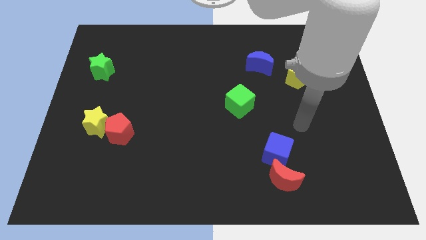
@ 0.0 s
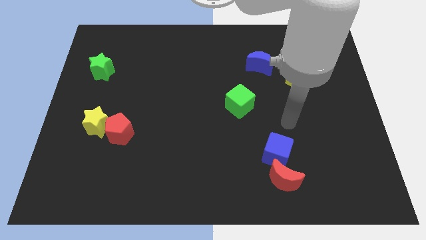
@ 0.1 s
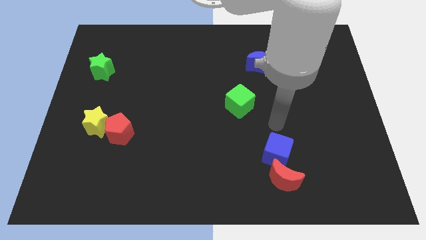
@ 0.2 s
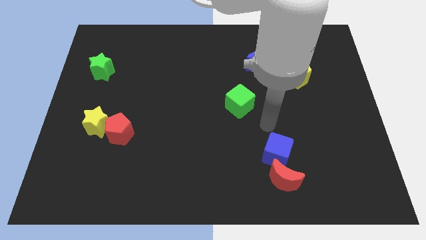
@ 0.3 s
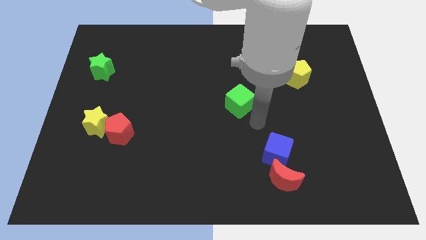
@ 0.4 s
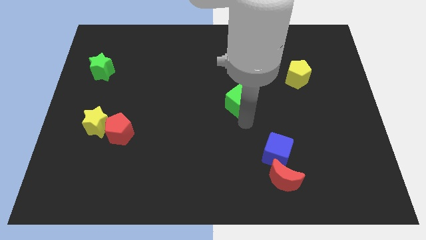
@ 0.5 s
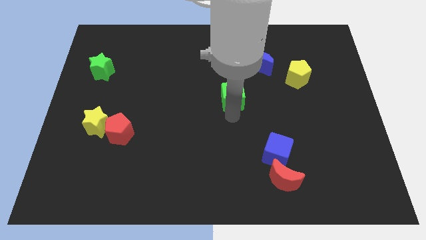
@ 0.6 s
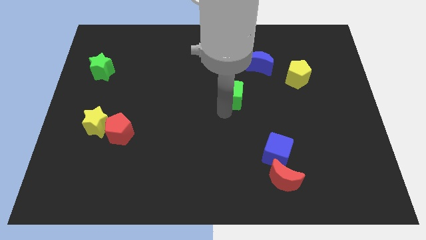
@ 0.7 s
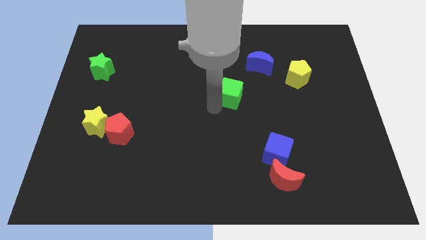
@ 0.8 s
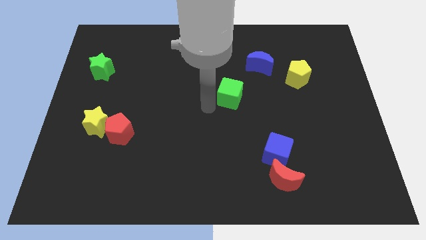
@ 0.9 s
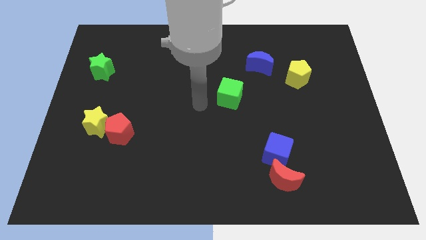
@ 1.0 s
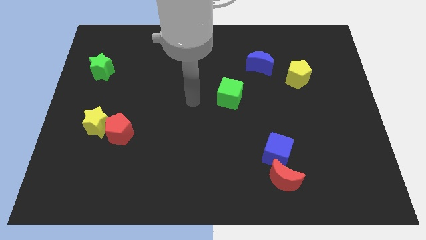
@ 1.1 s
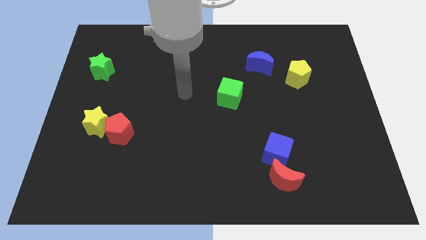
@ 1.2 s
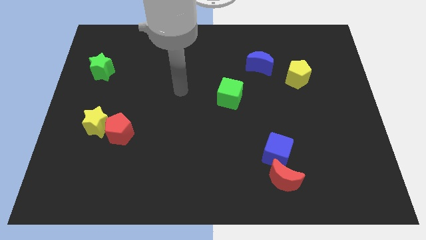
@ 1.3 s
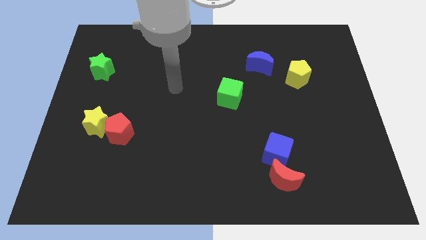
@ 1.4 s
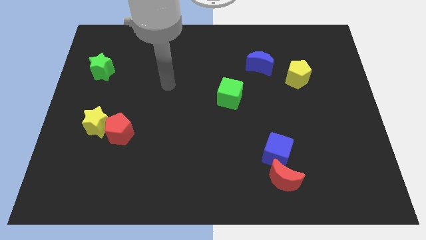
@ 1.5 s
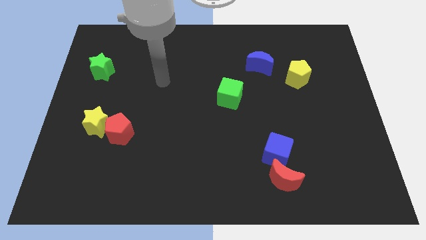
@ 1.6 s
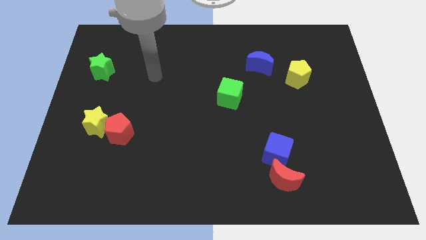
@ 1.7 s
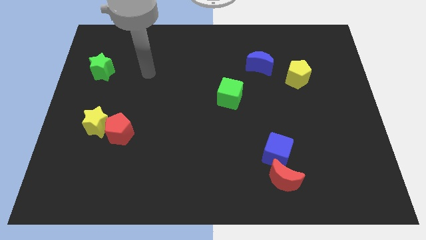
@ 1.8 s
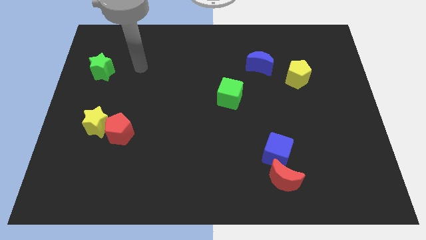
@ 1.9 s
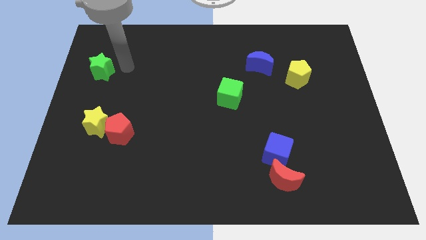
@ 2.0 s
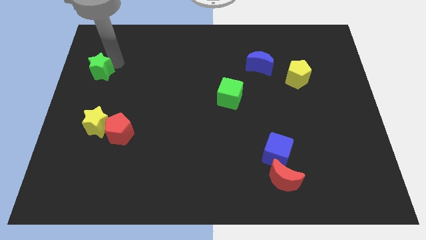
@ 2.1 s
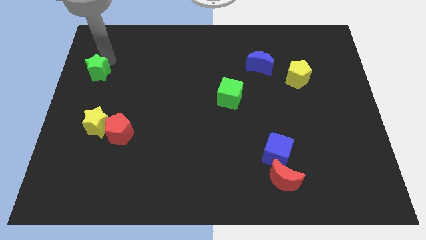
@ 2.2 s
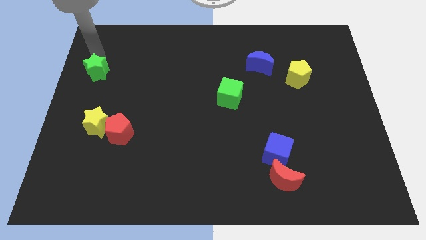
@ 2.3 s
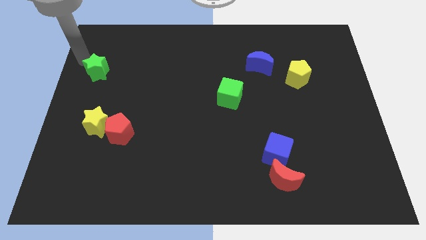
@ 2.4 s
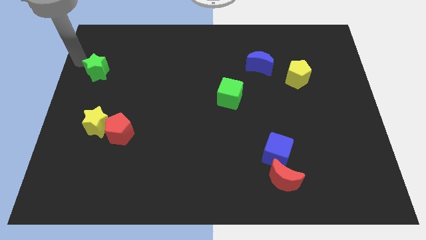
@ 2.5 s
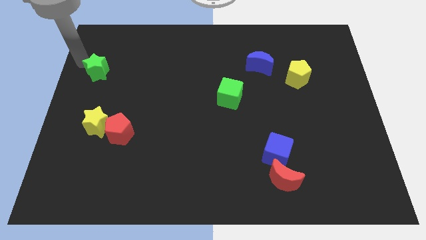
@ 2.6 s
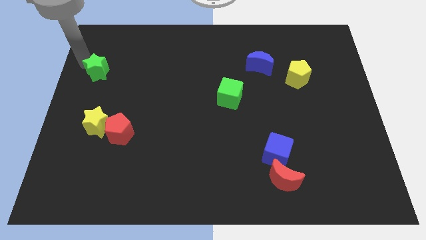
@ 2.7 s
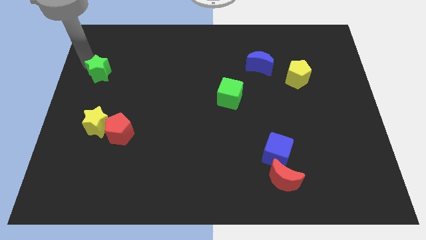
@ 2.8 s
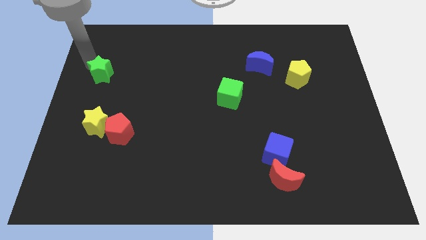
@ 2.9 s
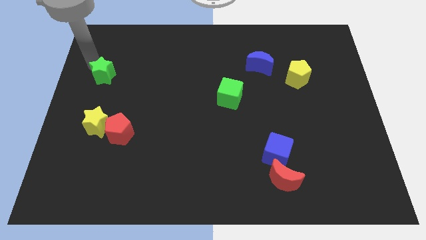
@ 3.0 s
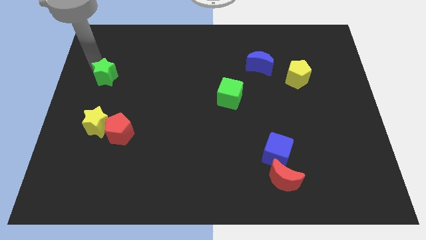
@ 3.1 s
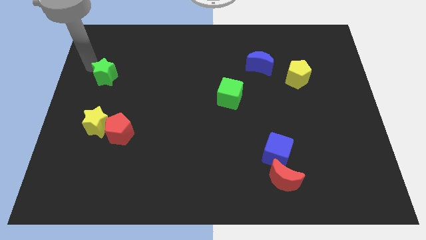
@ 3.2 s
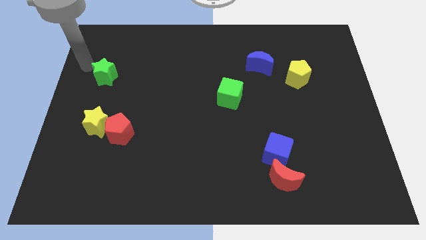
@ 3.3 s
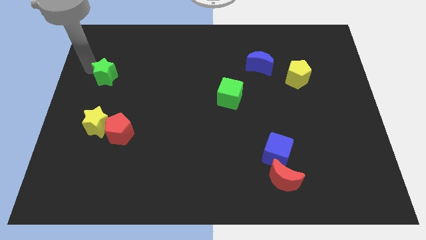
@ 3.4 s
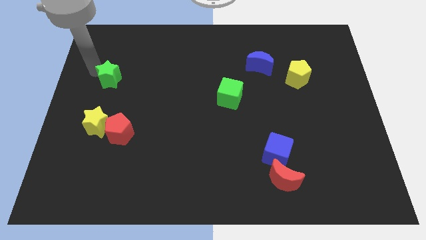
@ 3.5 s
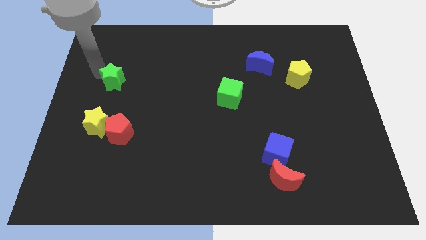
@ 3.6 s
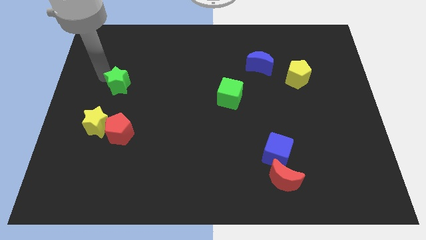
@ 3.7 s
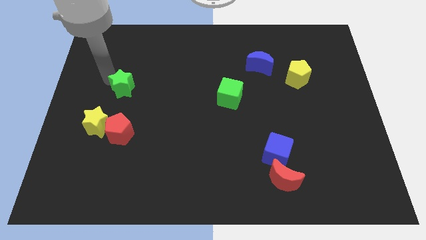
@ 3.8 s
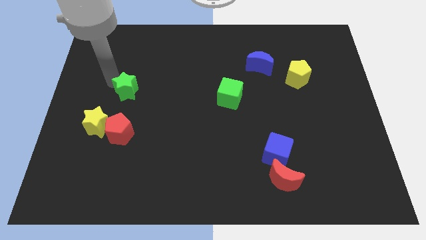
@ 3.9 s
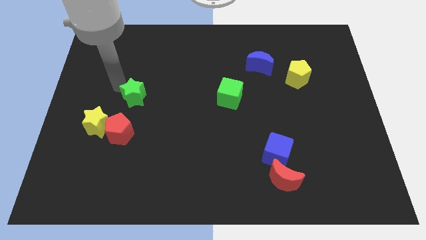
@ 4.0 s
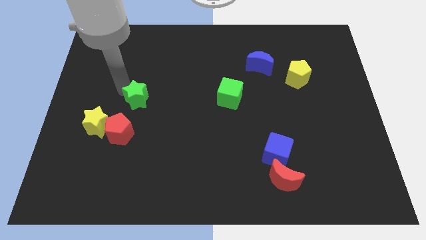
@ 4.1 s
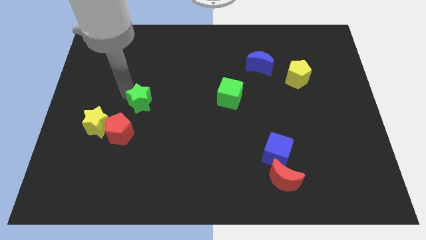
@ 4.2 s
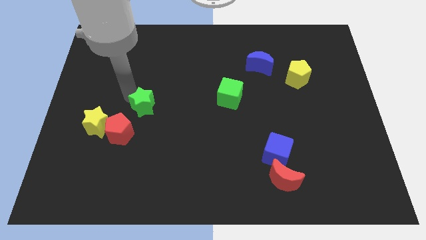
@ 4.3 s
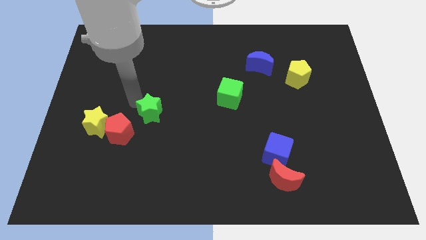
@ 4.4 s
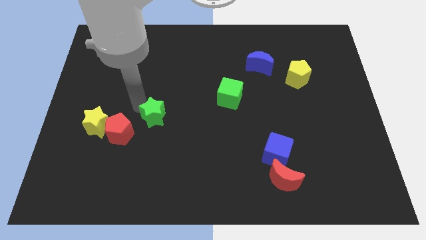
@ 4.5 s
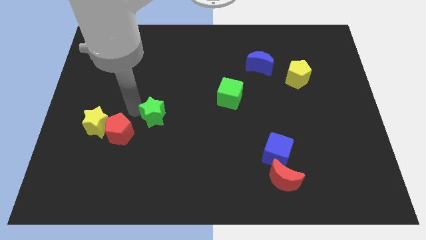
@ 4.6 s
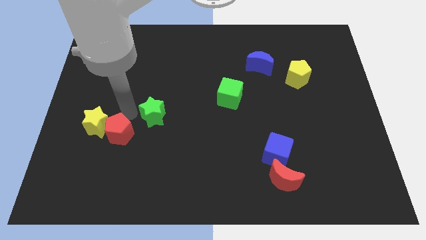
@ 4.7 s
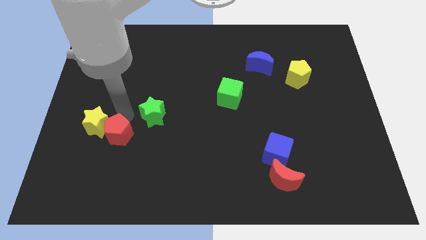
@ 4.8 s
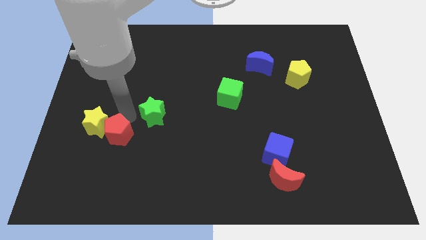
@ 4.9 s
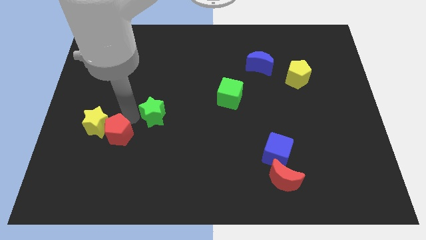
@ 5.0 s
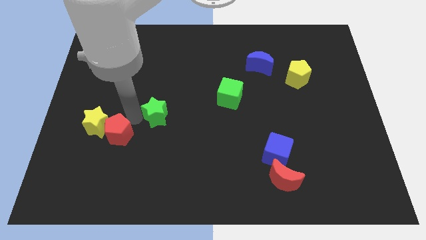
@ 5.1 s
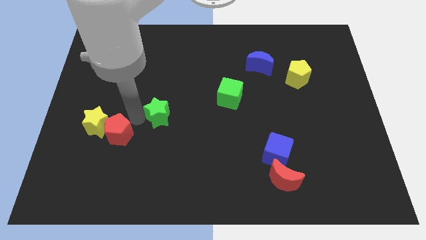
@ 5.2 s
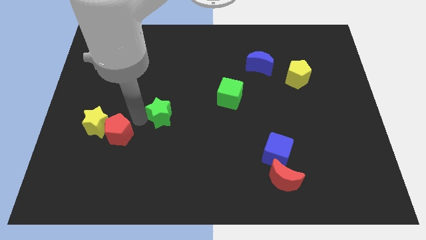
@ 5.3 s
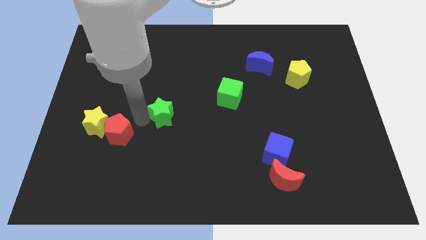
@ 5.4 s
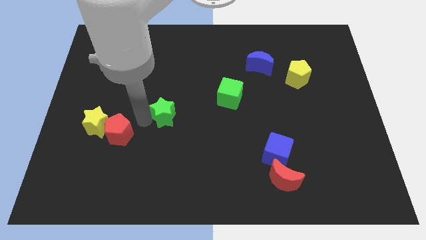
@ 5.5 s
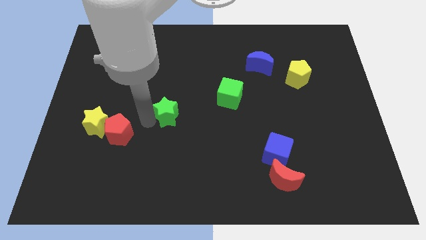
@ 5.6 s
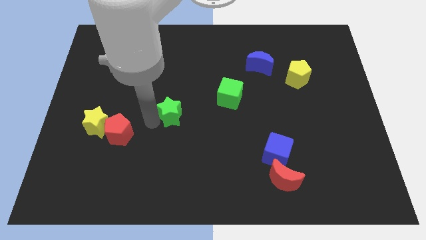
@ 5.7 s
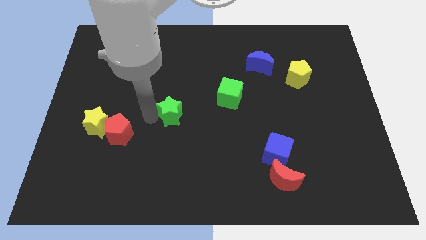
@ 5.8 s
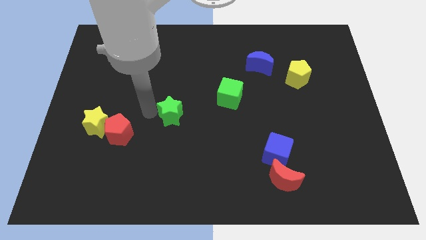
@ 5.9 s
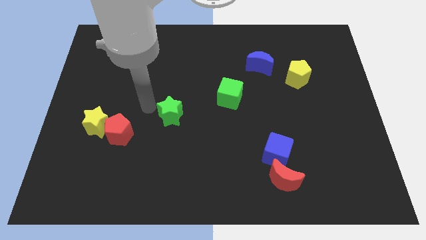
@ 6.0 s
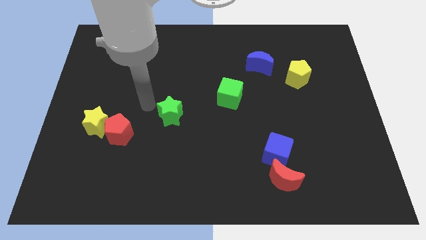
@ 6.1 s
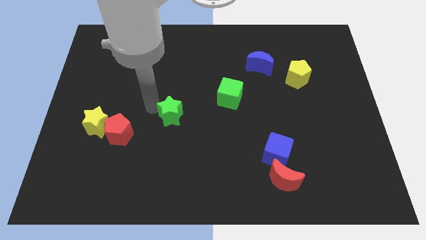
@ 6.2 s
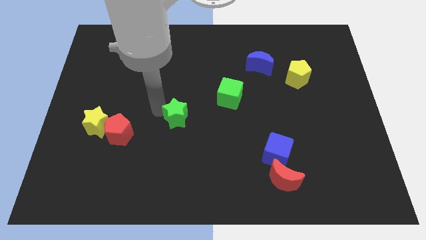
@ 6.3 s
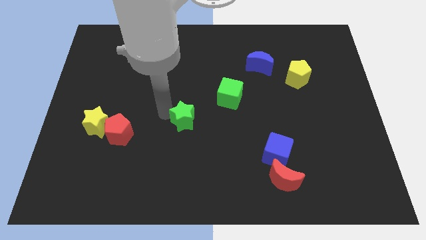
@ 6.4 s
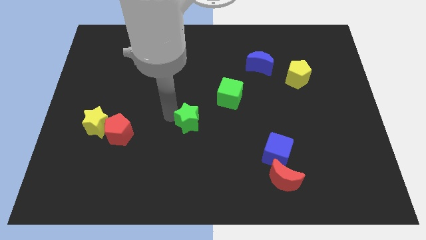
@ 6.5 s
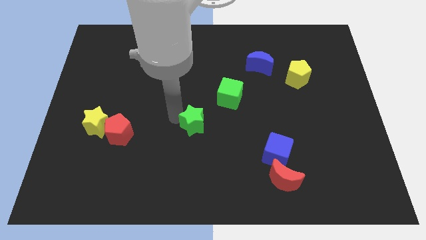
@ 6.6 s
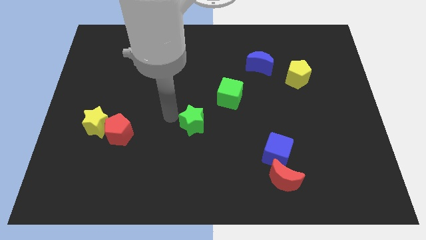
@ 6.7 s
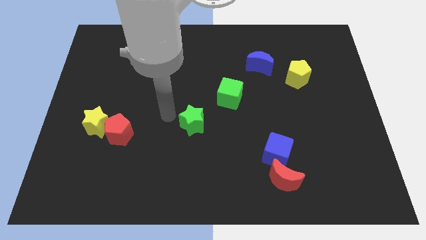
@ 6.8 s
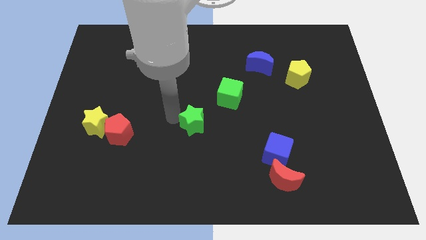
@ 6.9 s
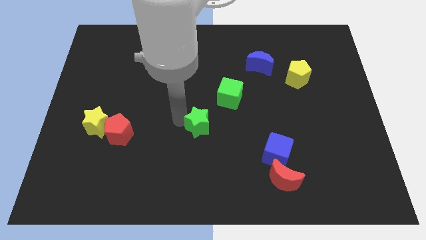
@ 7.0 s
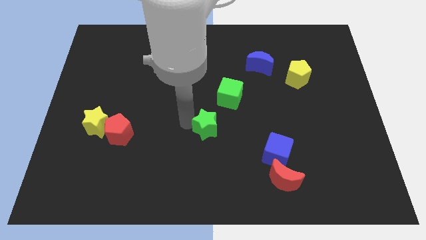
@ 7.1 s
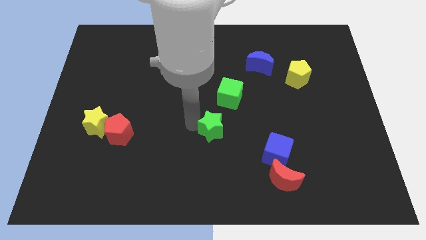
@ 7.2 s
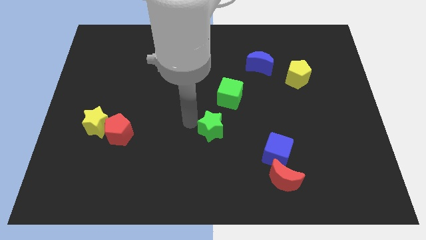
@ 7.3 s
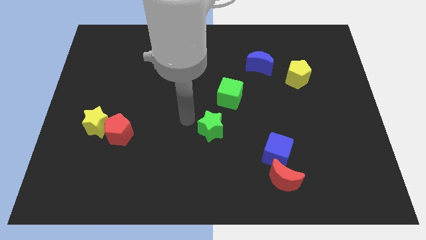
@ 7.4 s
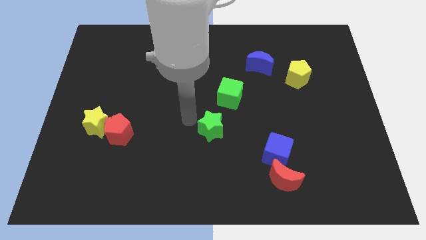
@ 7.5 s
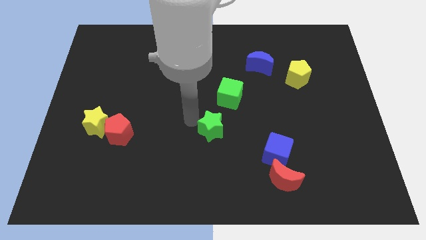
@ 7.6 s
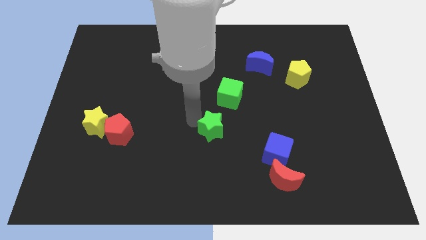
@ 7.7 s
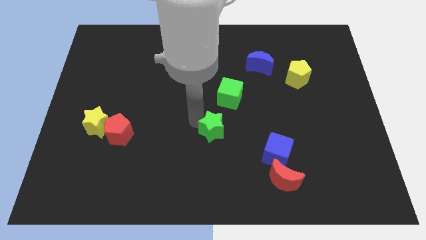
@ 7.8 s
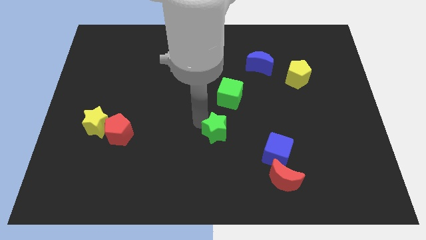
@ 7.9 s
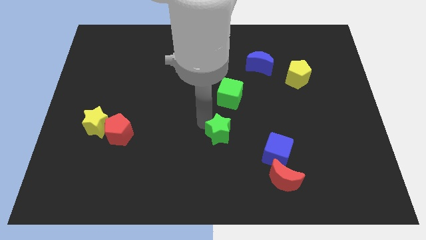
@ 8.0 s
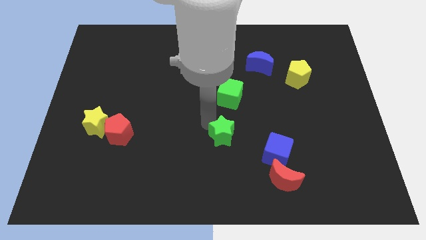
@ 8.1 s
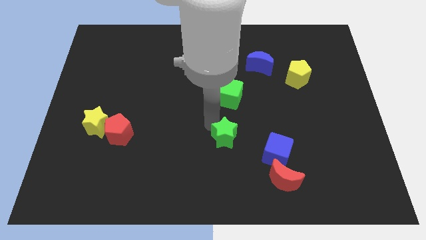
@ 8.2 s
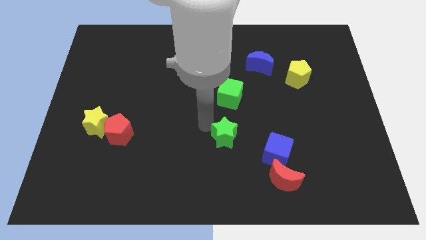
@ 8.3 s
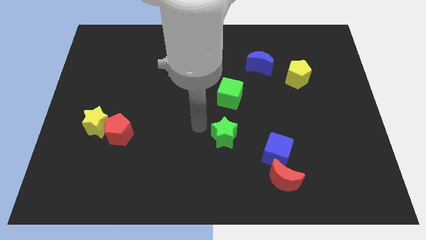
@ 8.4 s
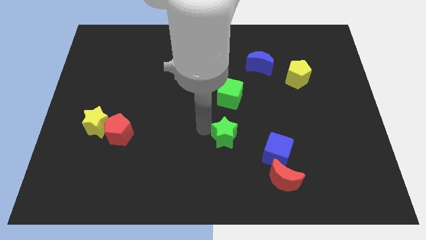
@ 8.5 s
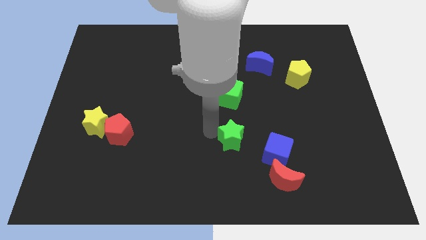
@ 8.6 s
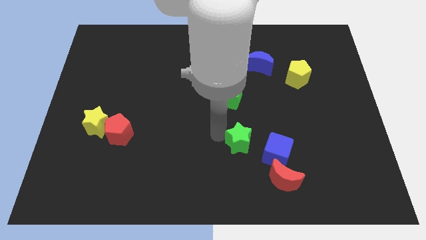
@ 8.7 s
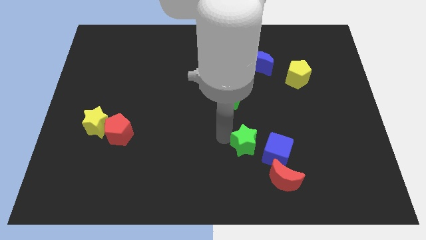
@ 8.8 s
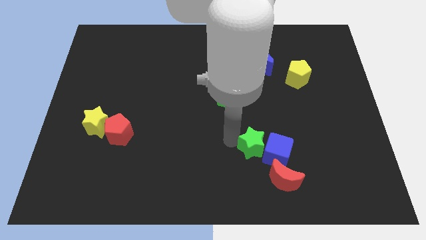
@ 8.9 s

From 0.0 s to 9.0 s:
move the green star close to the blue cube
